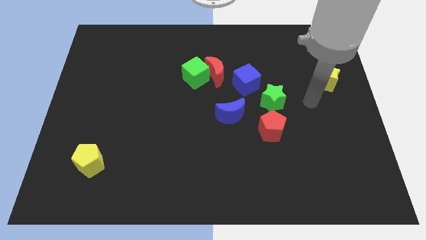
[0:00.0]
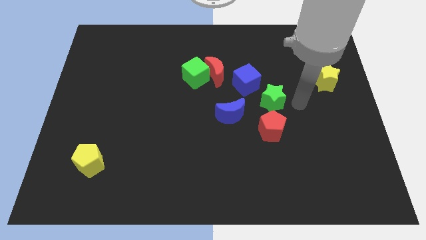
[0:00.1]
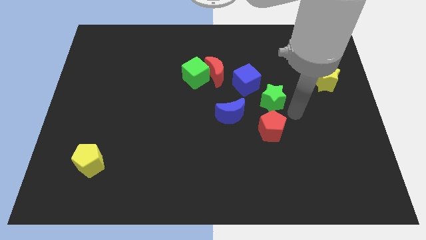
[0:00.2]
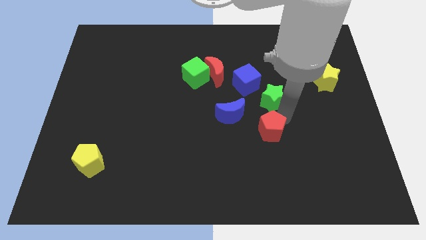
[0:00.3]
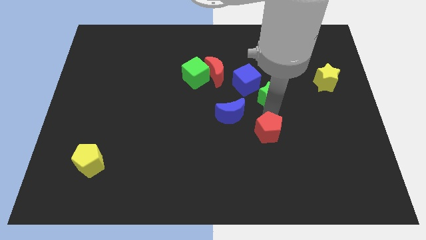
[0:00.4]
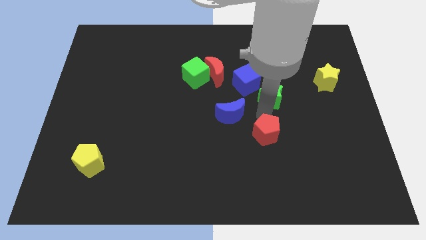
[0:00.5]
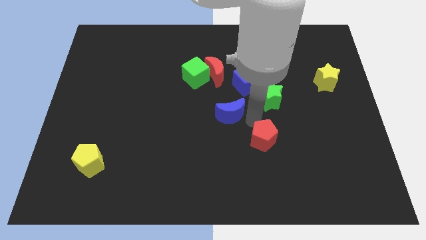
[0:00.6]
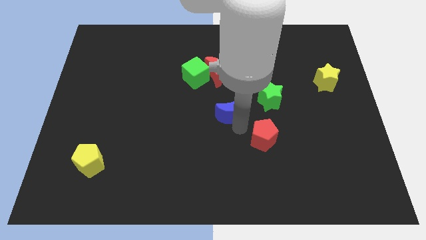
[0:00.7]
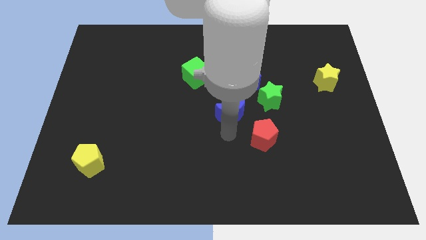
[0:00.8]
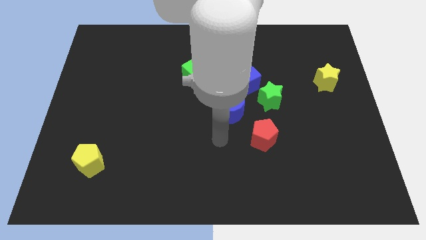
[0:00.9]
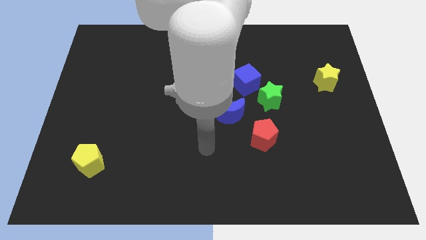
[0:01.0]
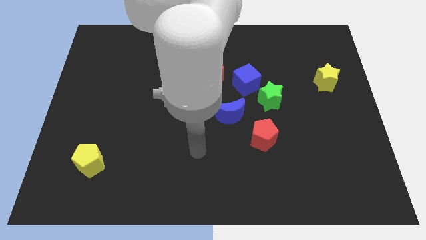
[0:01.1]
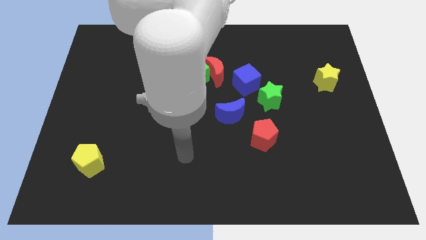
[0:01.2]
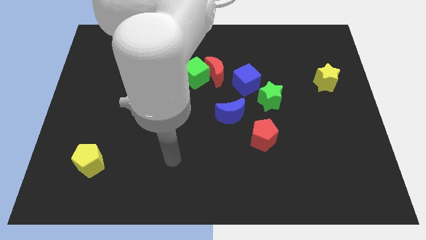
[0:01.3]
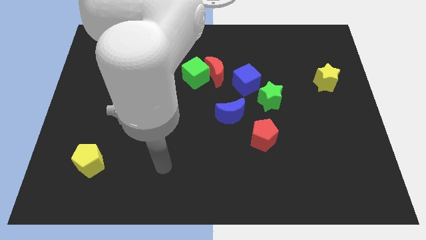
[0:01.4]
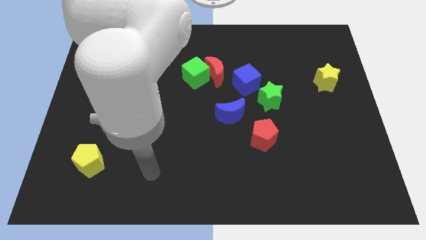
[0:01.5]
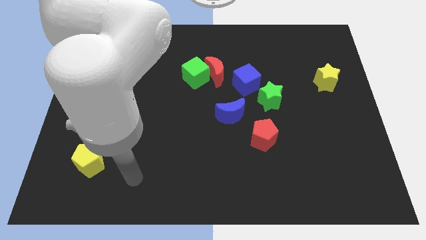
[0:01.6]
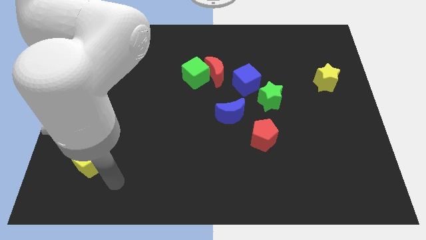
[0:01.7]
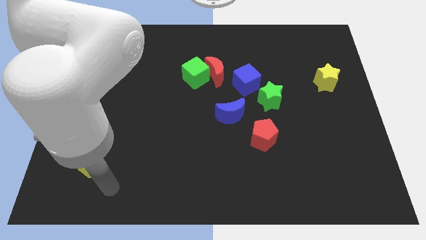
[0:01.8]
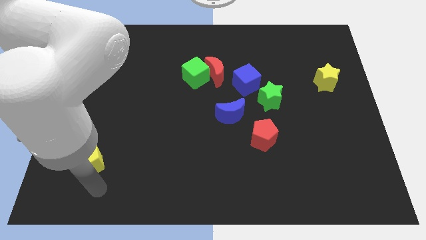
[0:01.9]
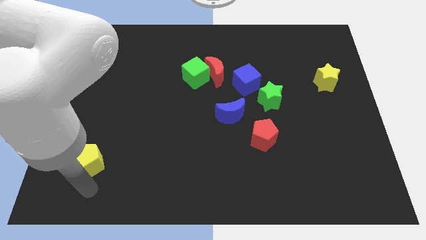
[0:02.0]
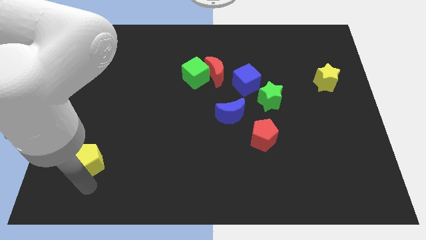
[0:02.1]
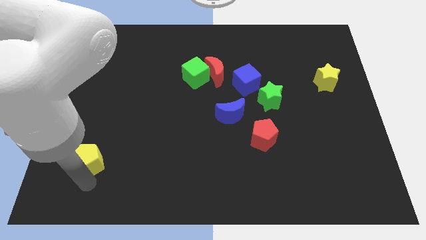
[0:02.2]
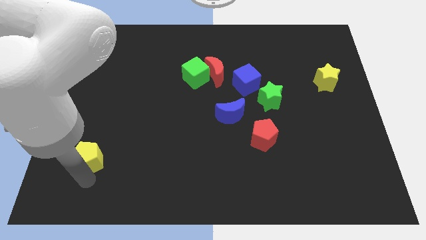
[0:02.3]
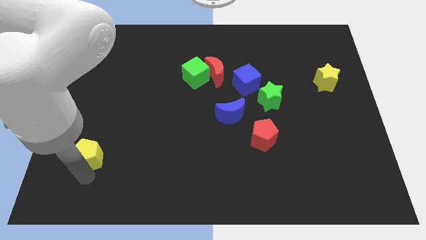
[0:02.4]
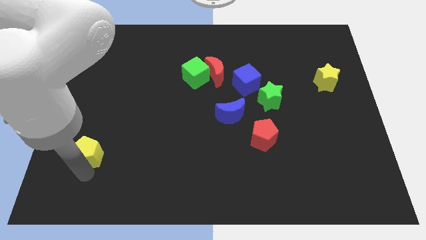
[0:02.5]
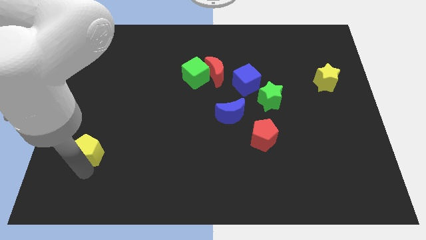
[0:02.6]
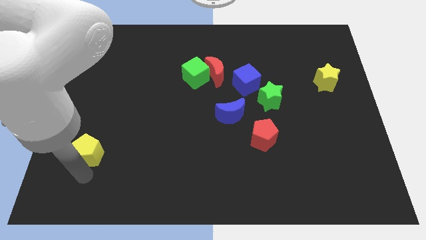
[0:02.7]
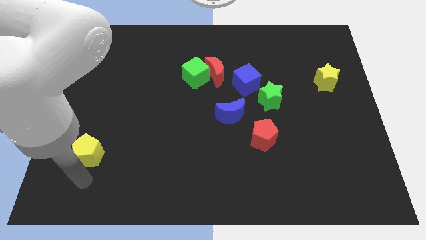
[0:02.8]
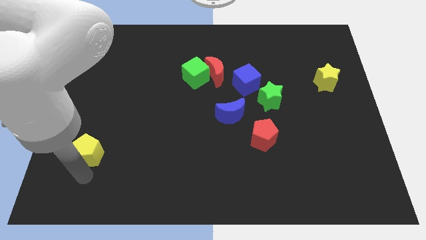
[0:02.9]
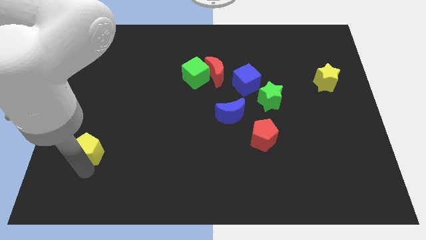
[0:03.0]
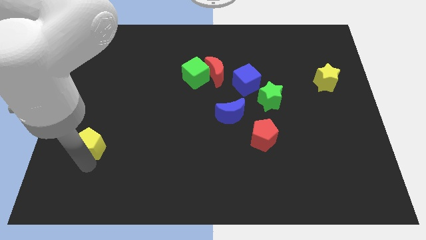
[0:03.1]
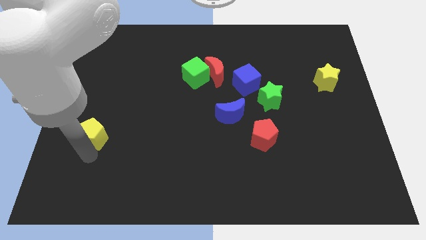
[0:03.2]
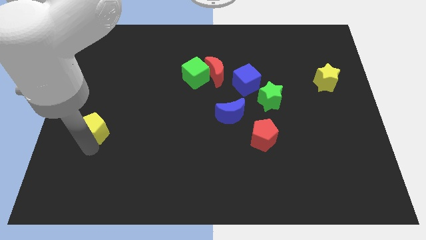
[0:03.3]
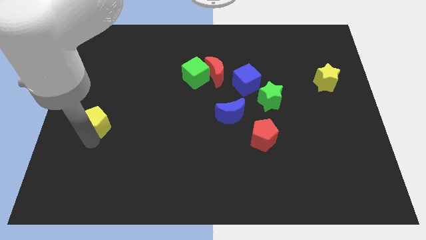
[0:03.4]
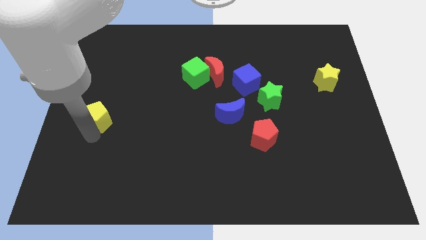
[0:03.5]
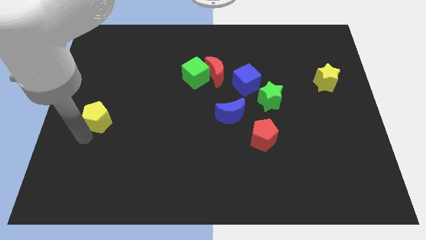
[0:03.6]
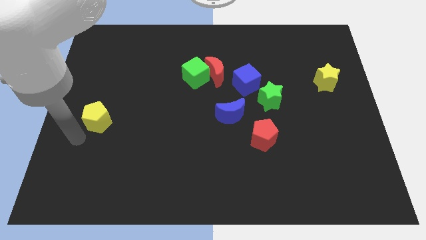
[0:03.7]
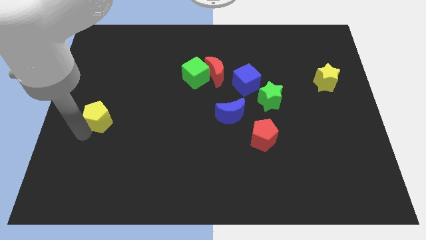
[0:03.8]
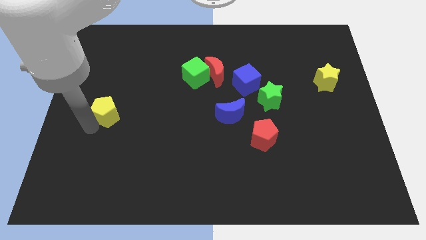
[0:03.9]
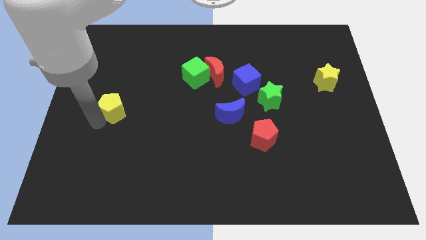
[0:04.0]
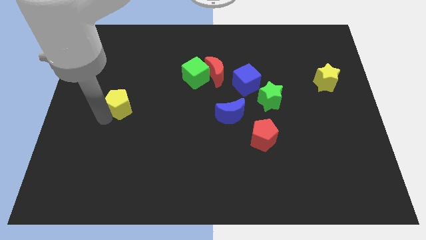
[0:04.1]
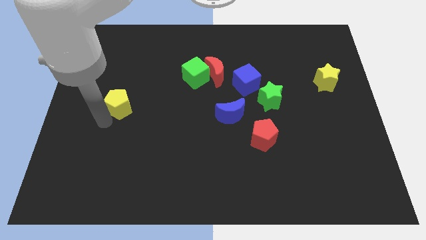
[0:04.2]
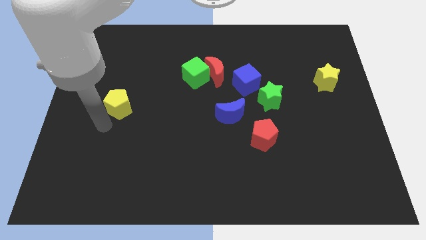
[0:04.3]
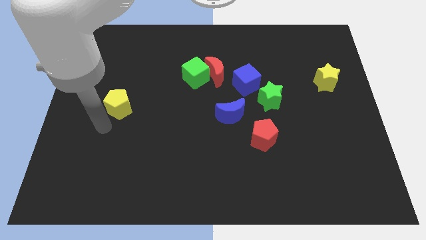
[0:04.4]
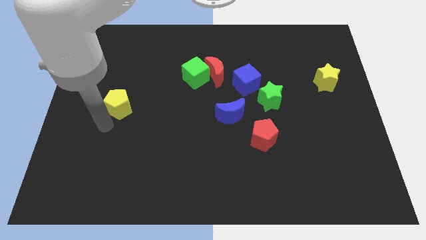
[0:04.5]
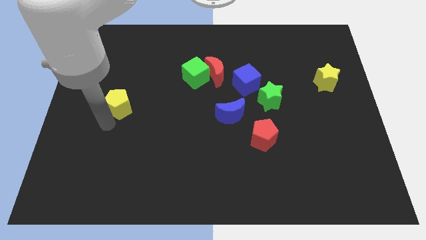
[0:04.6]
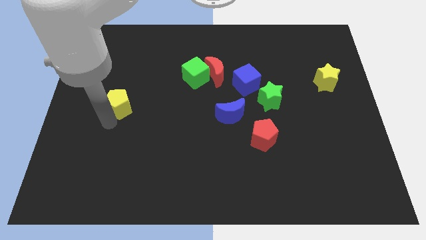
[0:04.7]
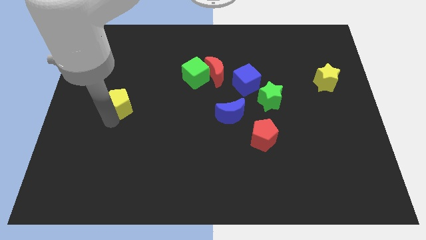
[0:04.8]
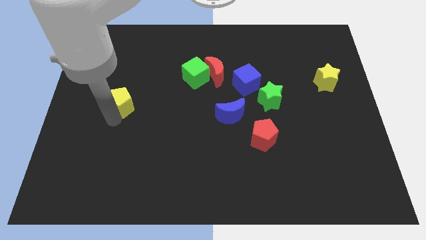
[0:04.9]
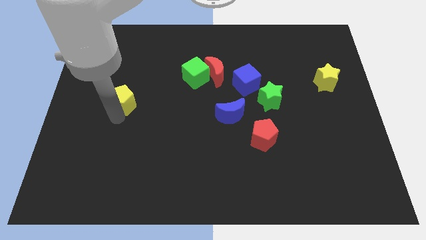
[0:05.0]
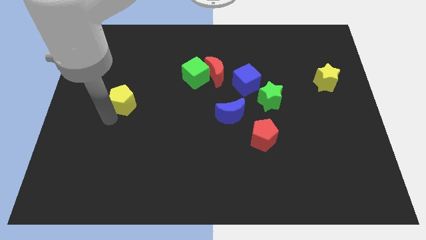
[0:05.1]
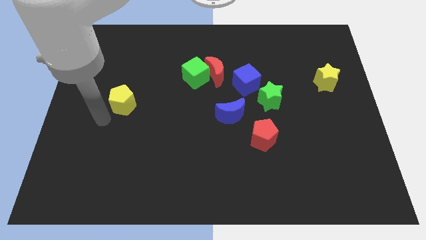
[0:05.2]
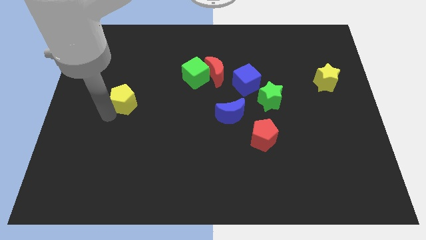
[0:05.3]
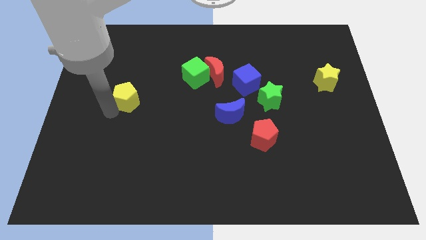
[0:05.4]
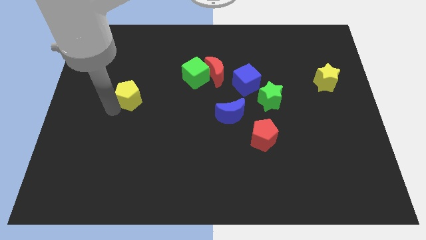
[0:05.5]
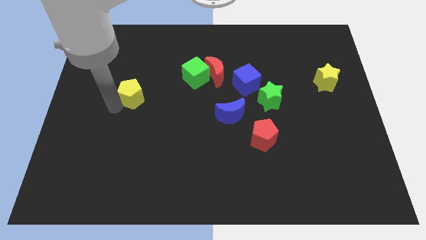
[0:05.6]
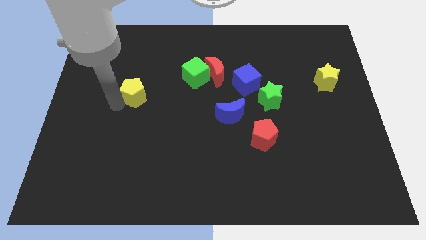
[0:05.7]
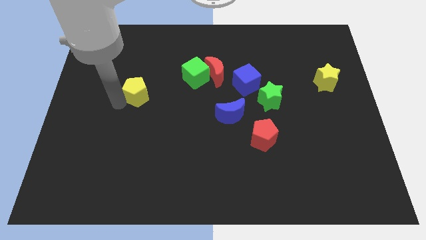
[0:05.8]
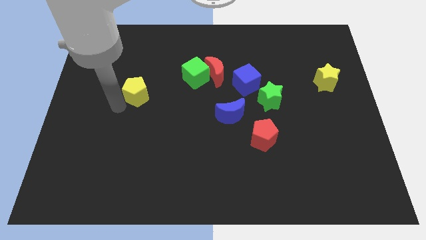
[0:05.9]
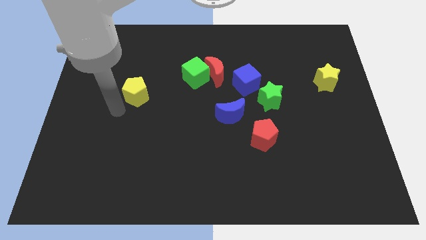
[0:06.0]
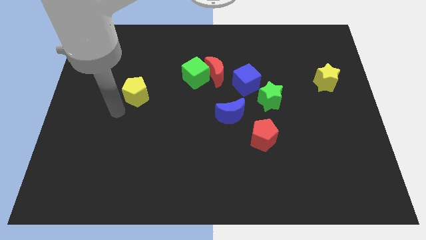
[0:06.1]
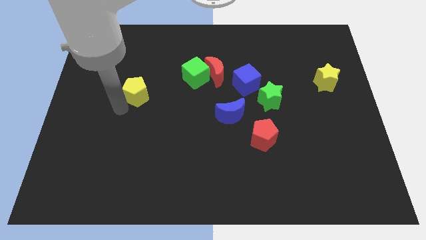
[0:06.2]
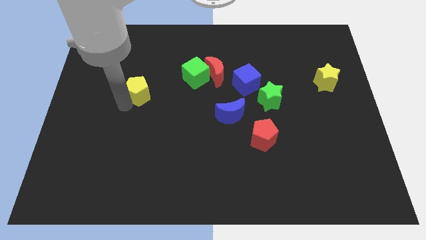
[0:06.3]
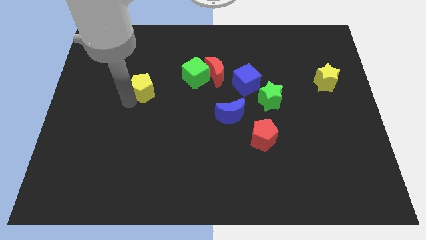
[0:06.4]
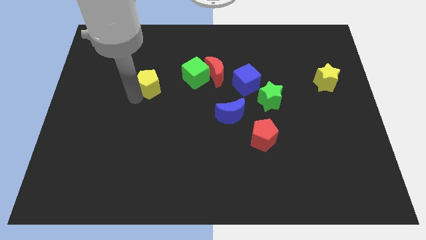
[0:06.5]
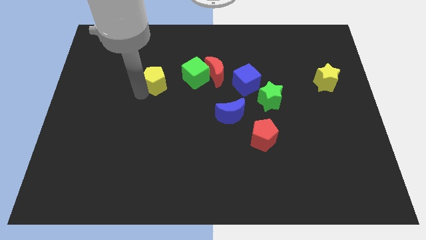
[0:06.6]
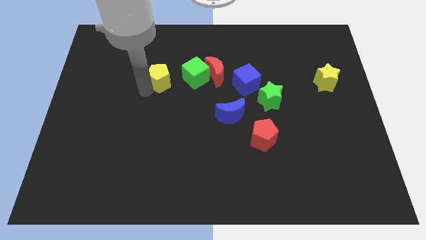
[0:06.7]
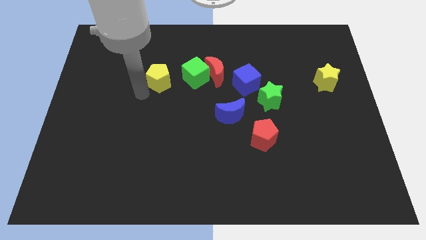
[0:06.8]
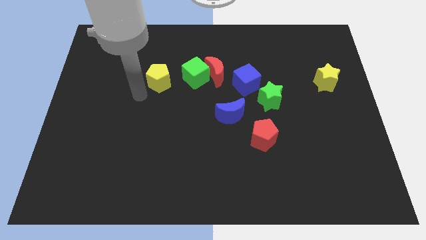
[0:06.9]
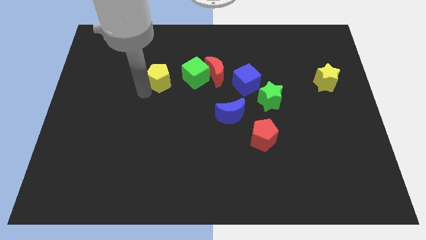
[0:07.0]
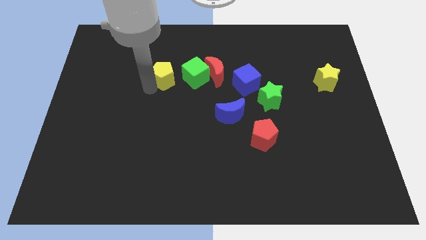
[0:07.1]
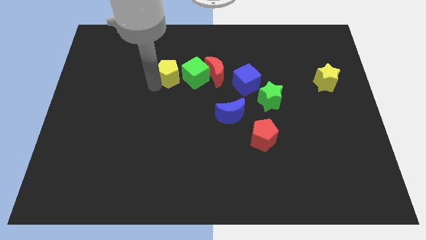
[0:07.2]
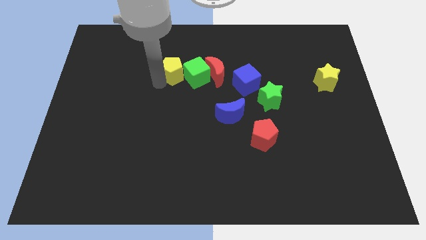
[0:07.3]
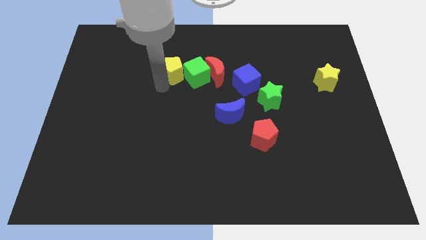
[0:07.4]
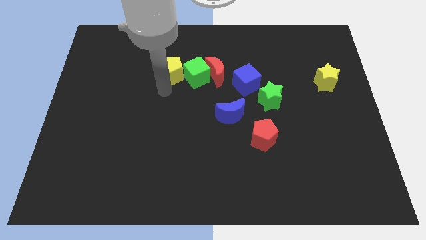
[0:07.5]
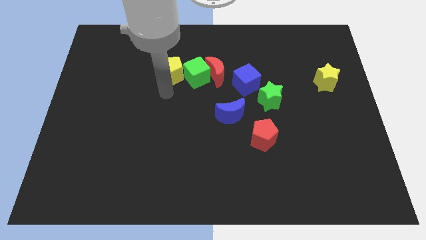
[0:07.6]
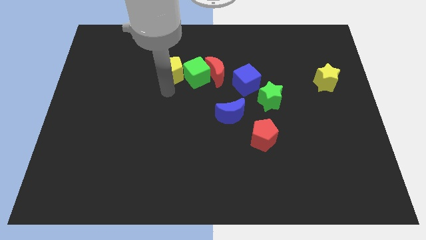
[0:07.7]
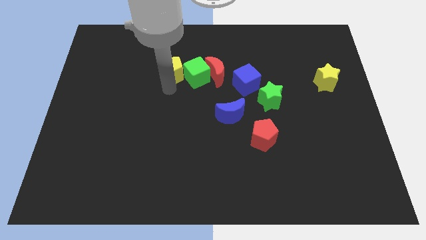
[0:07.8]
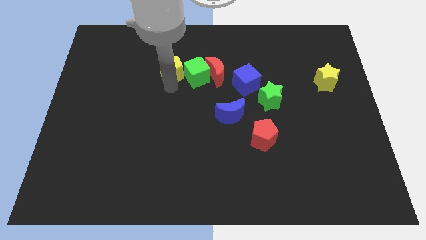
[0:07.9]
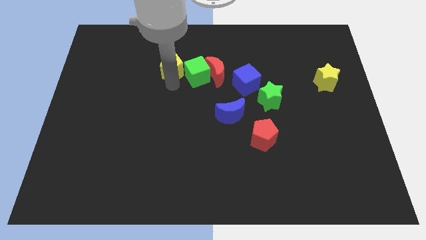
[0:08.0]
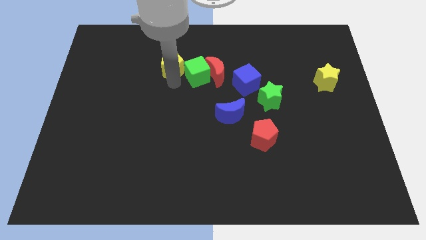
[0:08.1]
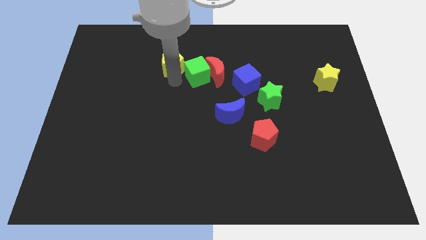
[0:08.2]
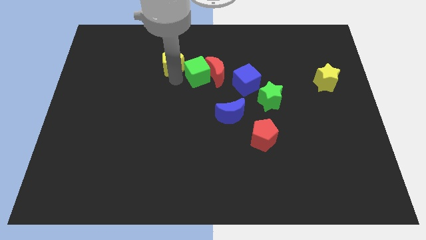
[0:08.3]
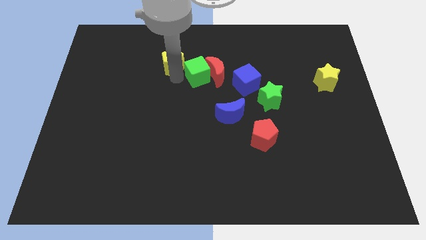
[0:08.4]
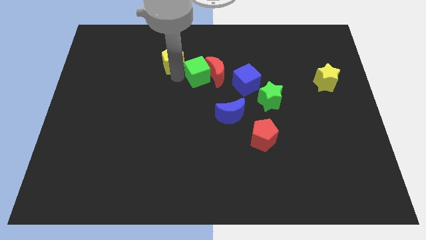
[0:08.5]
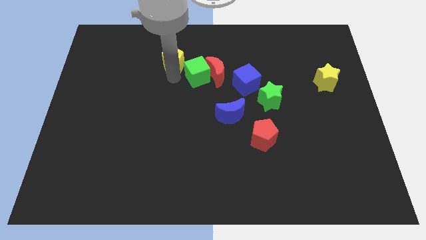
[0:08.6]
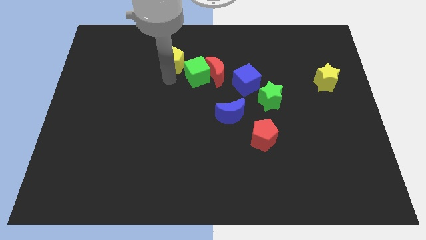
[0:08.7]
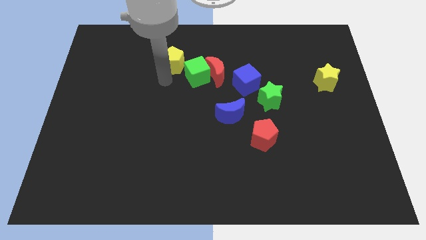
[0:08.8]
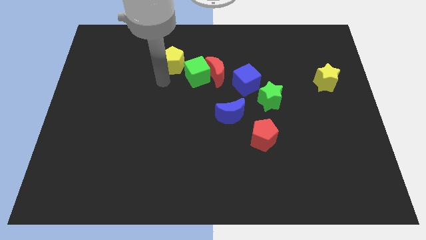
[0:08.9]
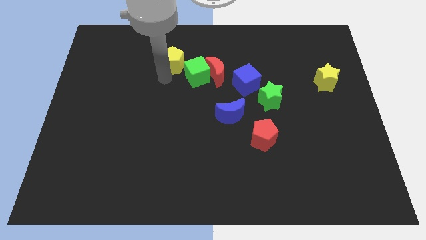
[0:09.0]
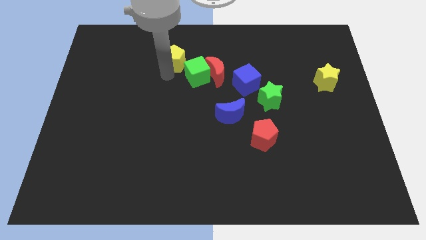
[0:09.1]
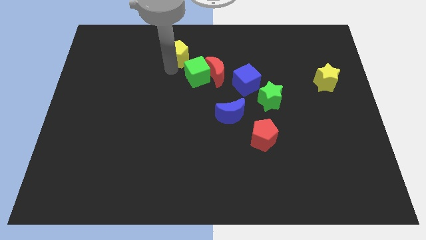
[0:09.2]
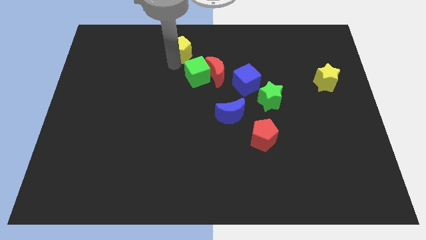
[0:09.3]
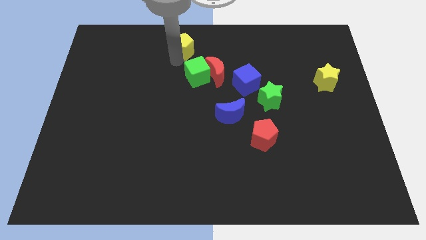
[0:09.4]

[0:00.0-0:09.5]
put the yellow pentagon to the towards your base
